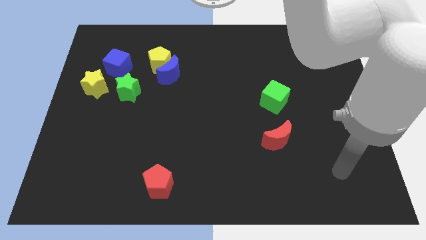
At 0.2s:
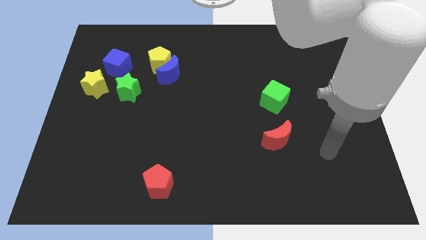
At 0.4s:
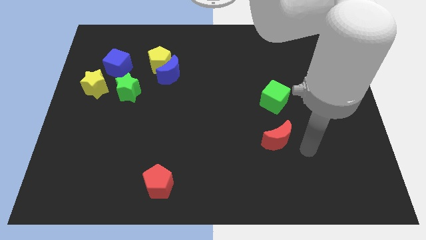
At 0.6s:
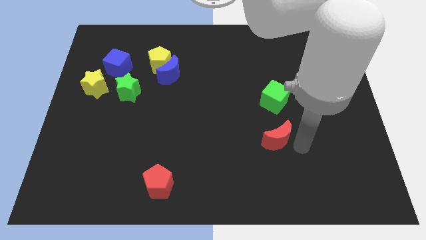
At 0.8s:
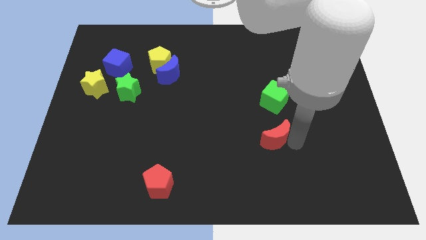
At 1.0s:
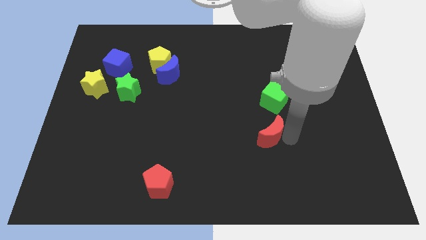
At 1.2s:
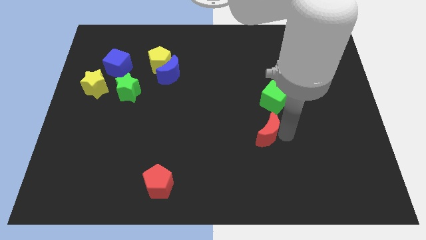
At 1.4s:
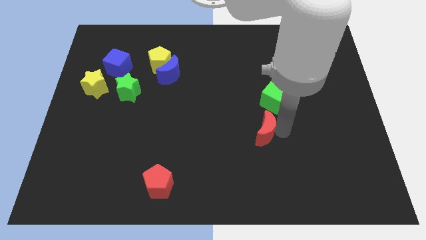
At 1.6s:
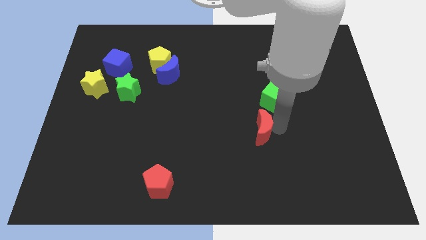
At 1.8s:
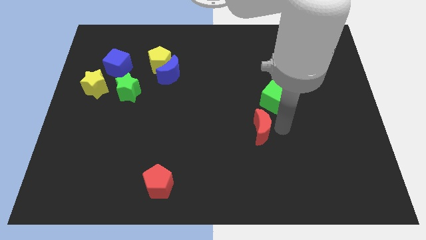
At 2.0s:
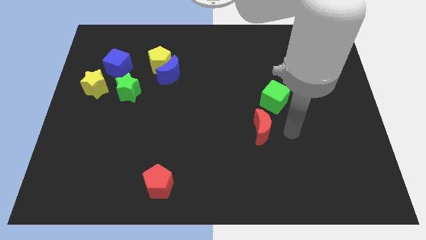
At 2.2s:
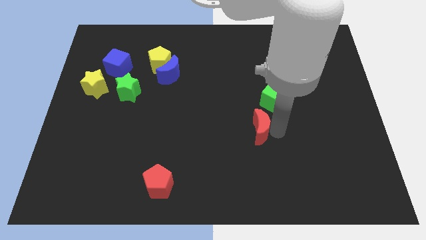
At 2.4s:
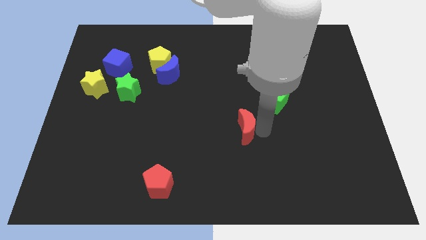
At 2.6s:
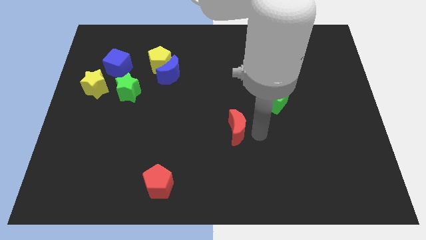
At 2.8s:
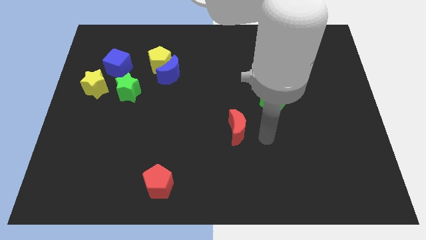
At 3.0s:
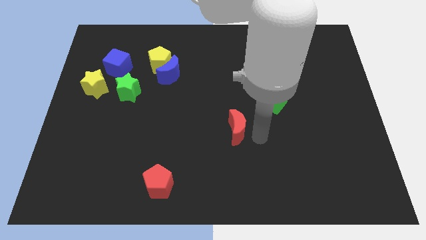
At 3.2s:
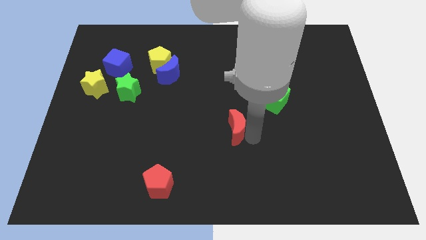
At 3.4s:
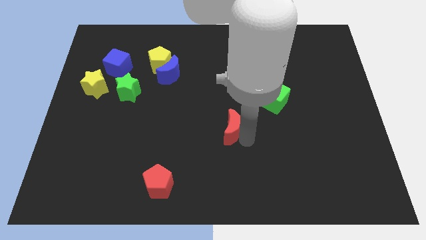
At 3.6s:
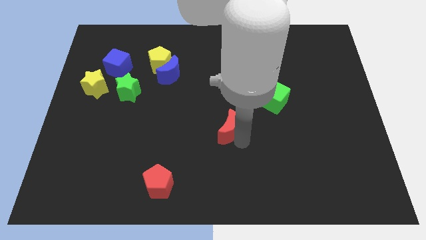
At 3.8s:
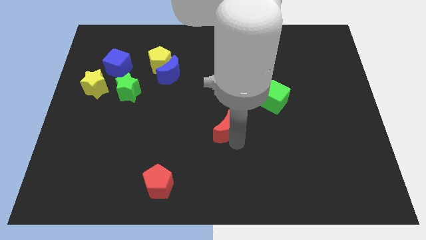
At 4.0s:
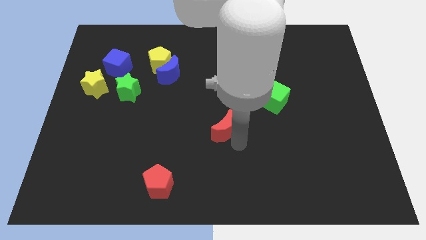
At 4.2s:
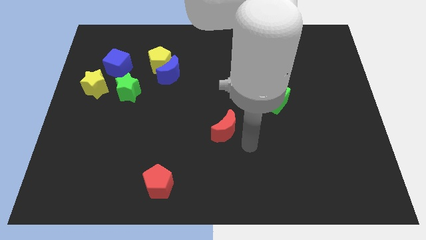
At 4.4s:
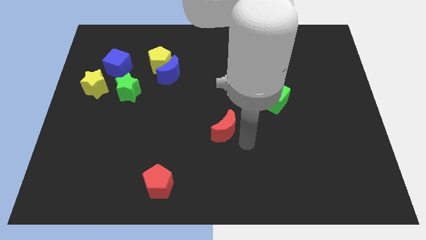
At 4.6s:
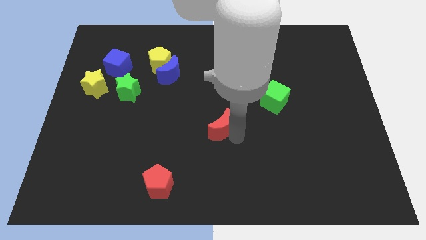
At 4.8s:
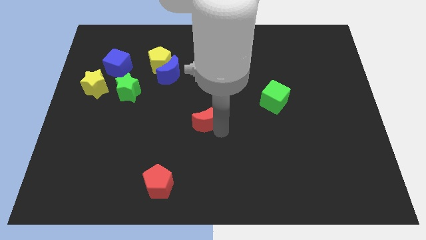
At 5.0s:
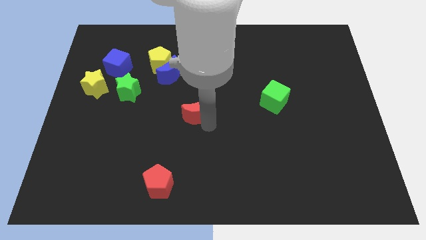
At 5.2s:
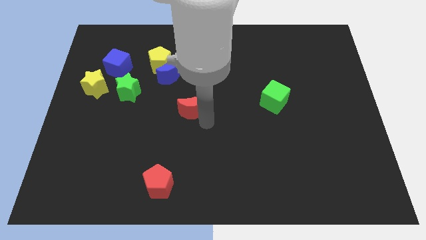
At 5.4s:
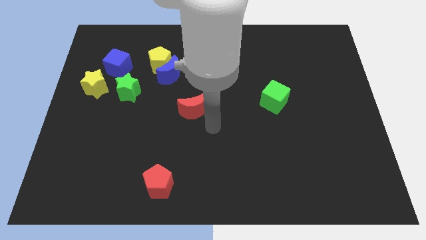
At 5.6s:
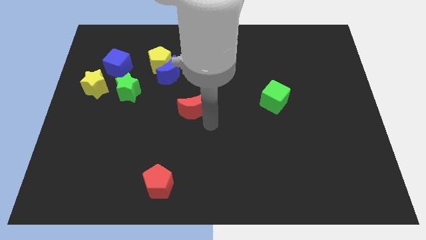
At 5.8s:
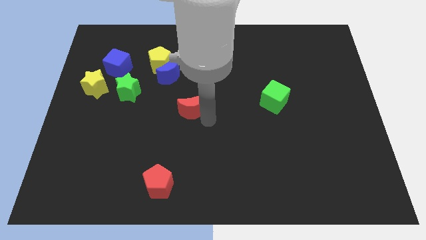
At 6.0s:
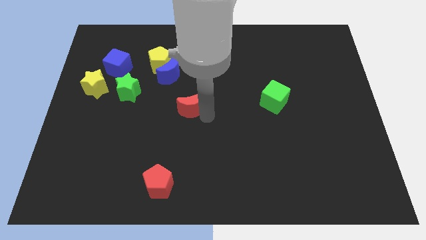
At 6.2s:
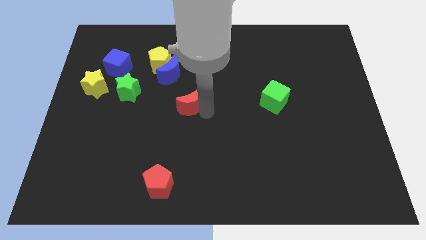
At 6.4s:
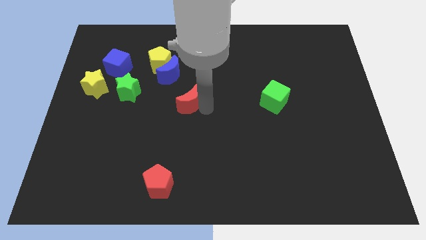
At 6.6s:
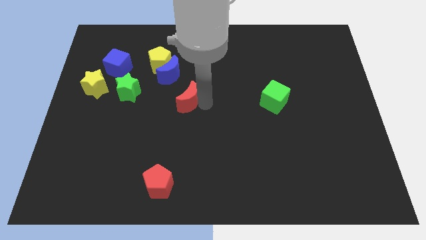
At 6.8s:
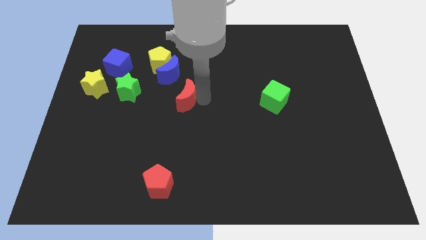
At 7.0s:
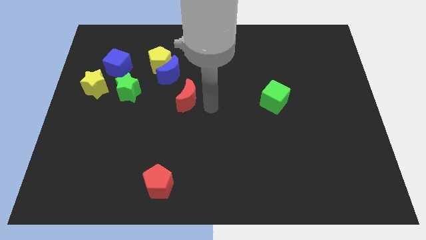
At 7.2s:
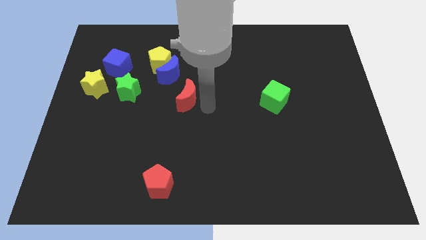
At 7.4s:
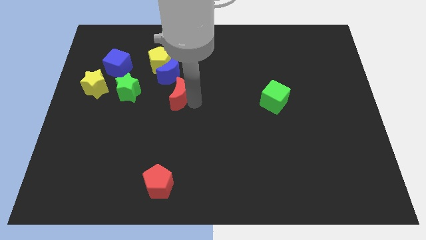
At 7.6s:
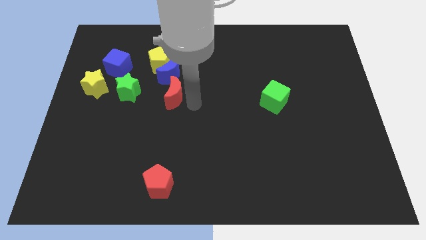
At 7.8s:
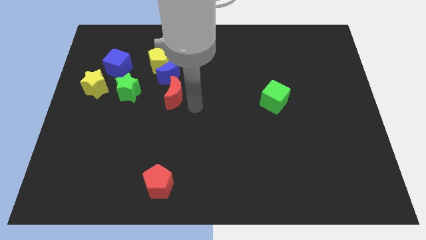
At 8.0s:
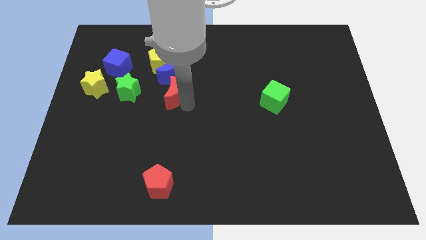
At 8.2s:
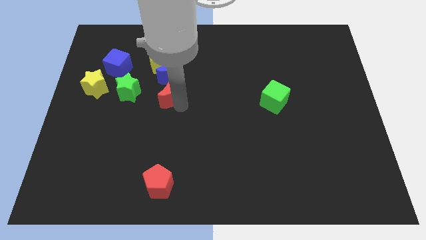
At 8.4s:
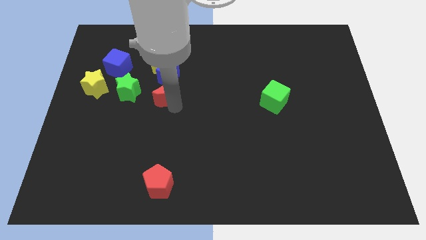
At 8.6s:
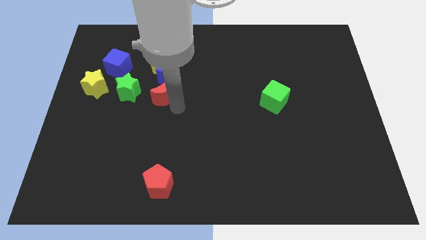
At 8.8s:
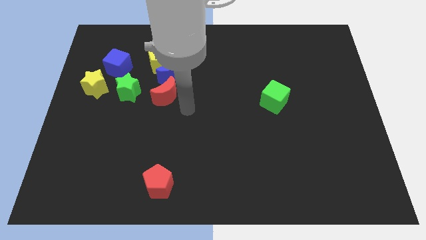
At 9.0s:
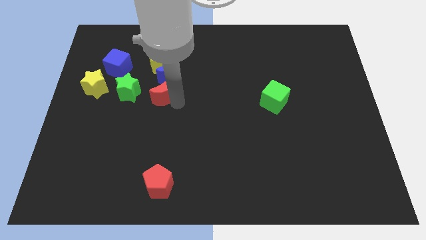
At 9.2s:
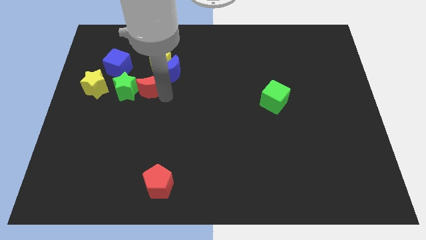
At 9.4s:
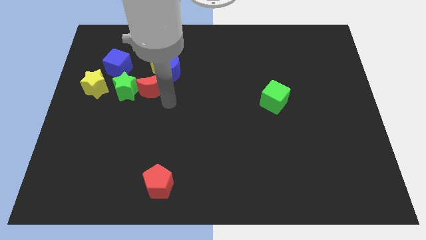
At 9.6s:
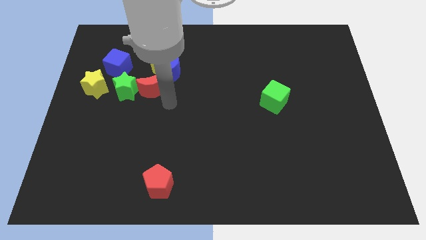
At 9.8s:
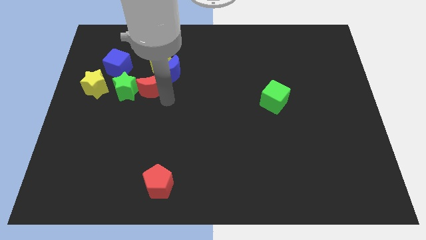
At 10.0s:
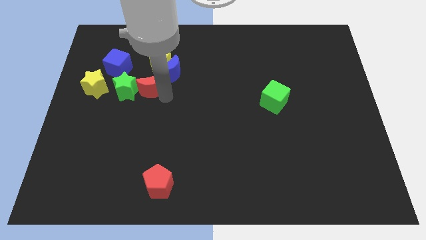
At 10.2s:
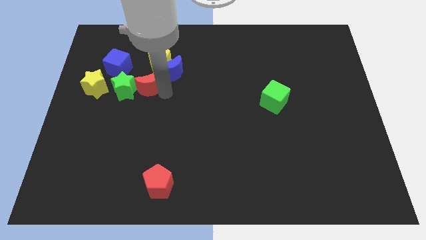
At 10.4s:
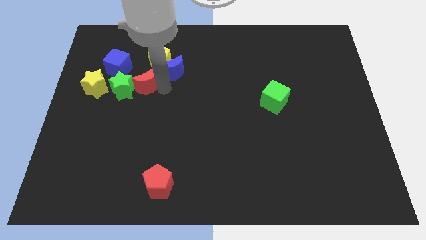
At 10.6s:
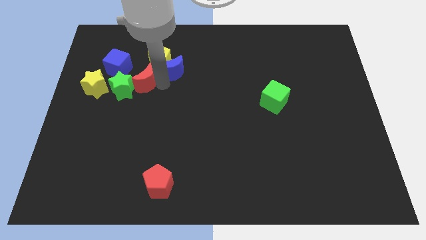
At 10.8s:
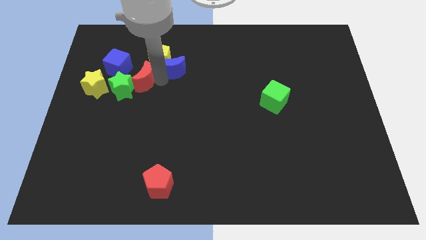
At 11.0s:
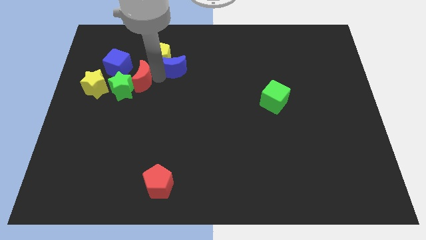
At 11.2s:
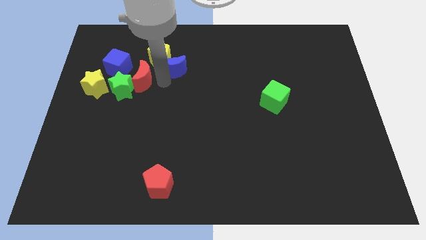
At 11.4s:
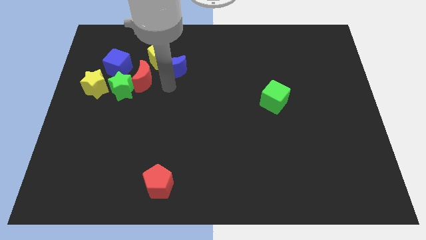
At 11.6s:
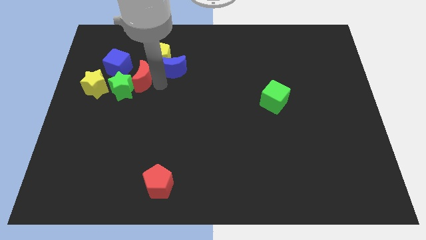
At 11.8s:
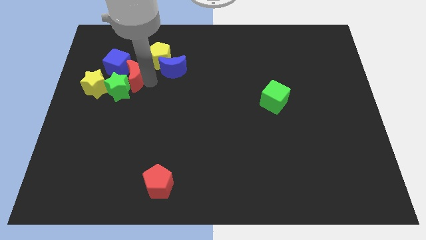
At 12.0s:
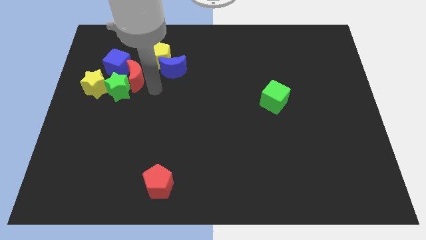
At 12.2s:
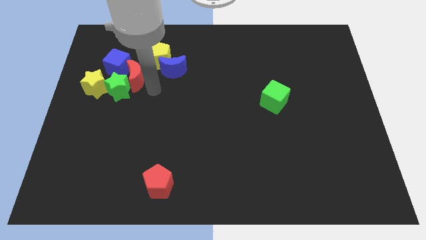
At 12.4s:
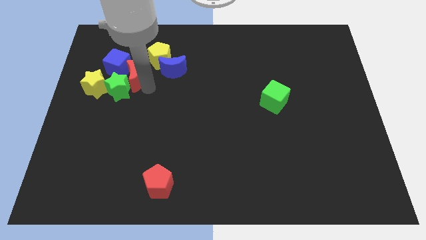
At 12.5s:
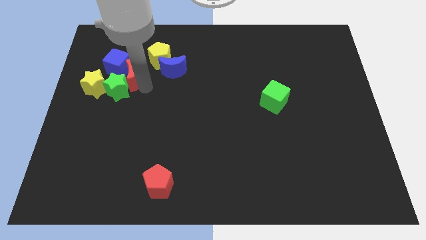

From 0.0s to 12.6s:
push the red moon towards the blue cube

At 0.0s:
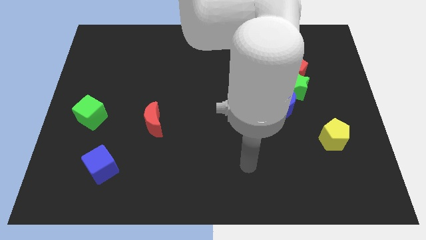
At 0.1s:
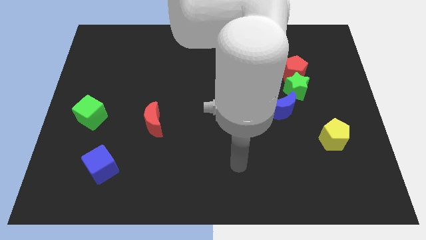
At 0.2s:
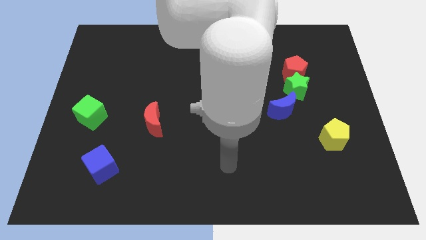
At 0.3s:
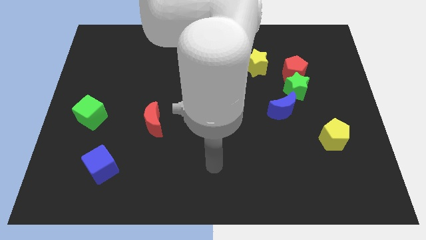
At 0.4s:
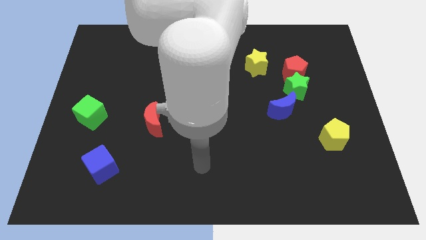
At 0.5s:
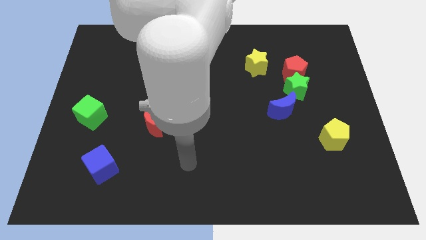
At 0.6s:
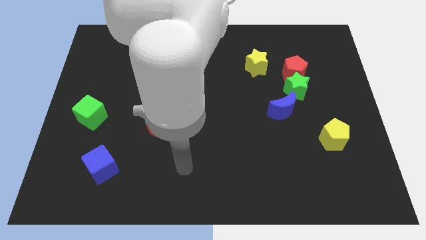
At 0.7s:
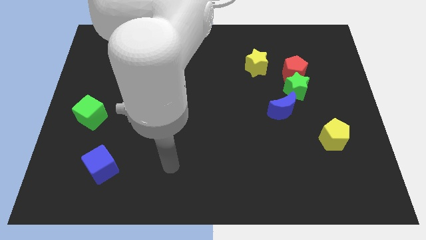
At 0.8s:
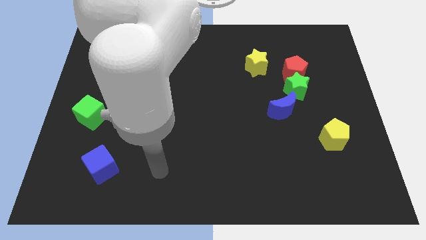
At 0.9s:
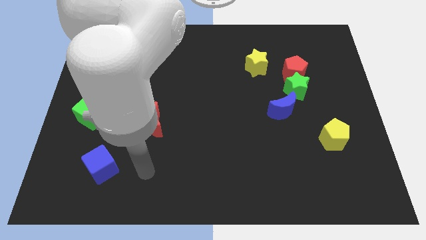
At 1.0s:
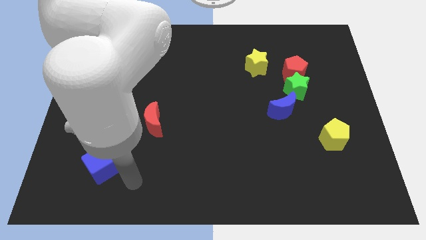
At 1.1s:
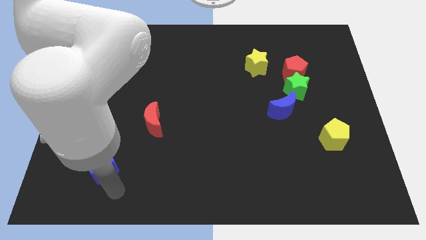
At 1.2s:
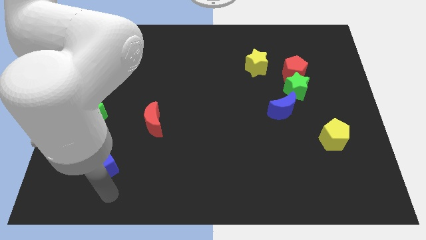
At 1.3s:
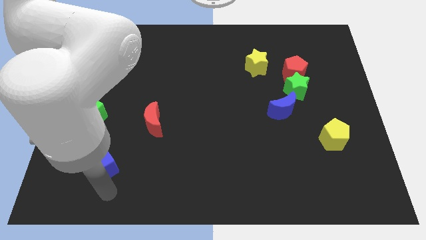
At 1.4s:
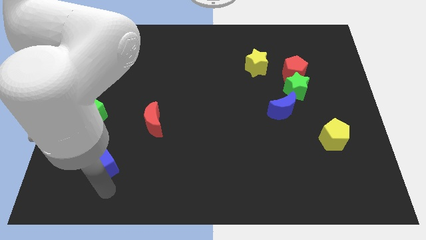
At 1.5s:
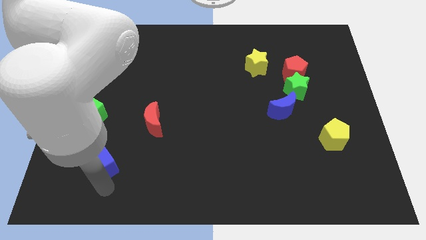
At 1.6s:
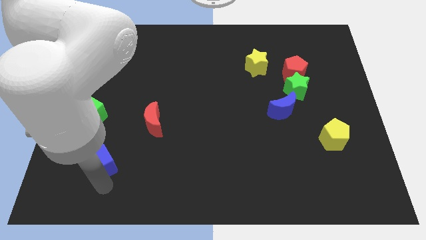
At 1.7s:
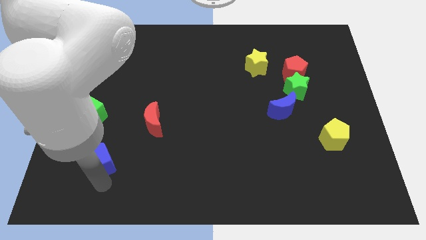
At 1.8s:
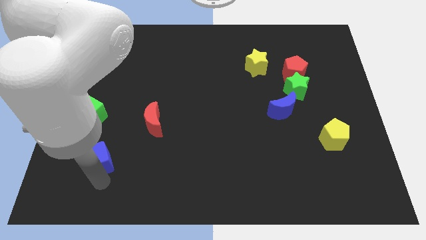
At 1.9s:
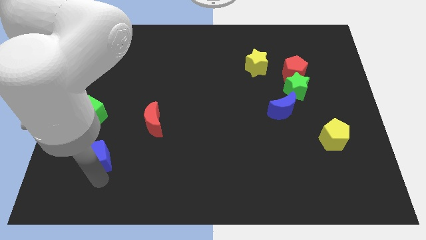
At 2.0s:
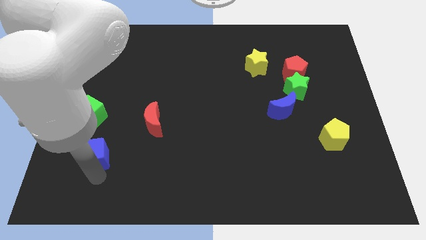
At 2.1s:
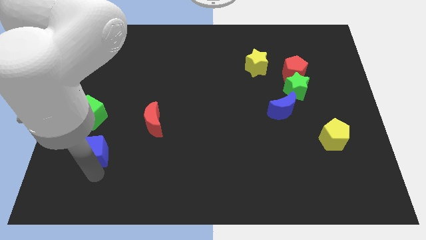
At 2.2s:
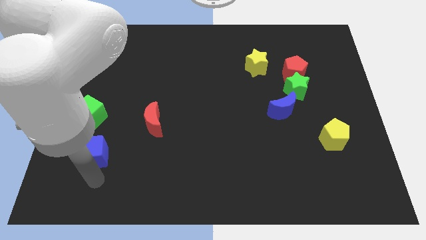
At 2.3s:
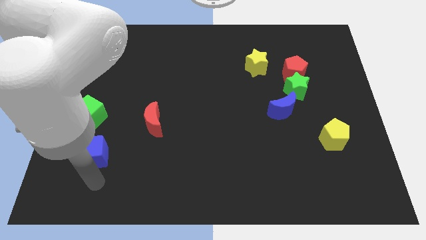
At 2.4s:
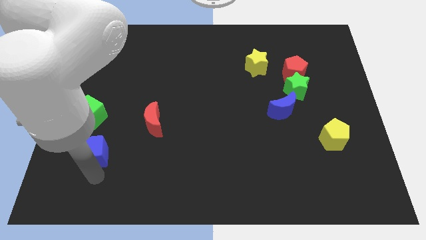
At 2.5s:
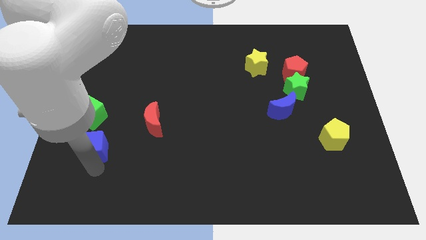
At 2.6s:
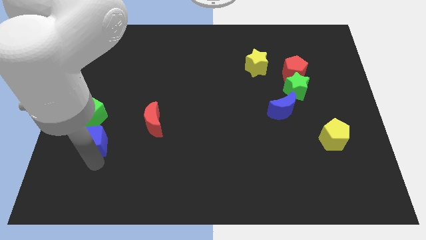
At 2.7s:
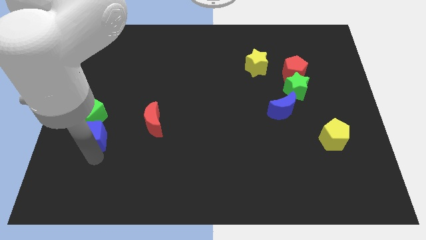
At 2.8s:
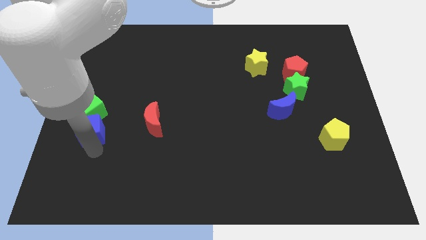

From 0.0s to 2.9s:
slide the blue cube next to the green cube
